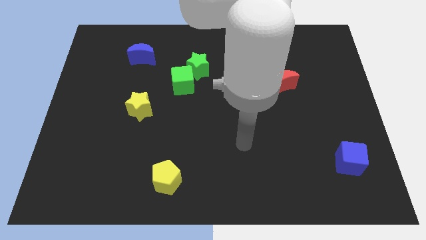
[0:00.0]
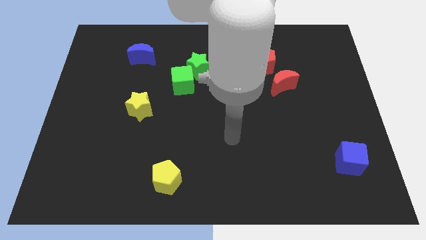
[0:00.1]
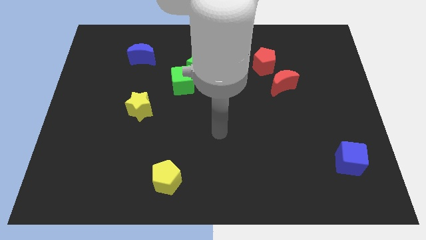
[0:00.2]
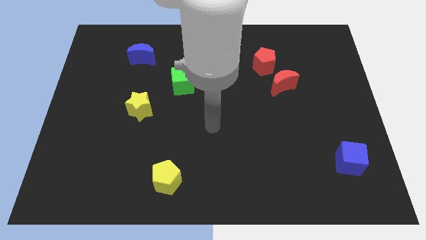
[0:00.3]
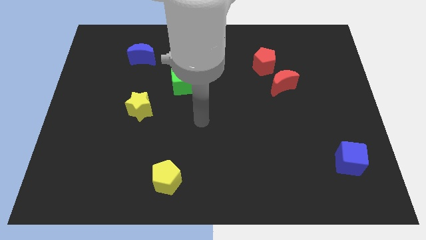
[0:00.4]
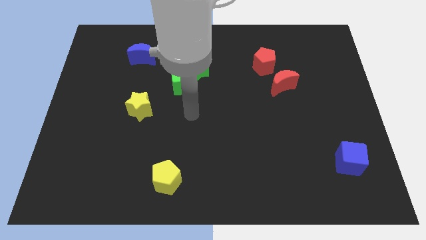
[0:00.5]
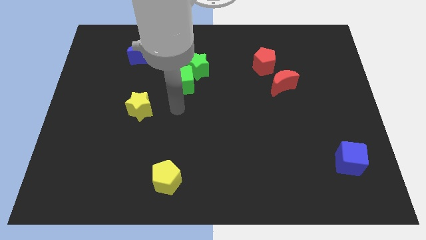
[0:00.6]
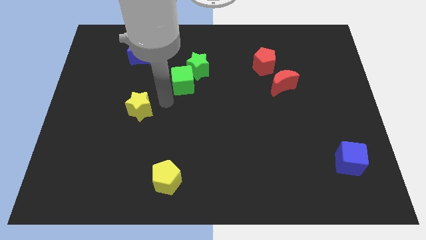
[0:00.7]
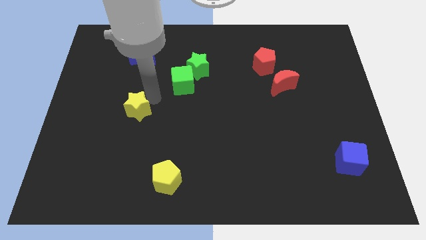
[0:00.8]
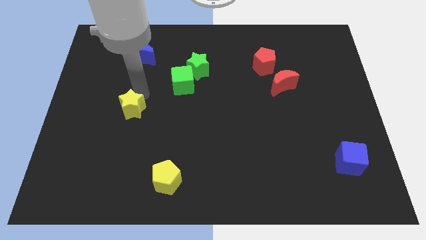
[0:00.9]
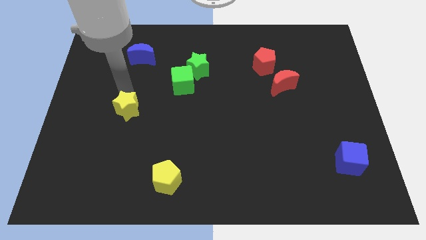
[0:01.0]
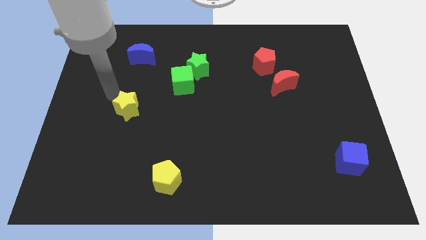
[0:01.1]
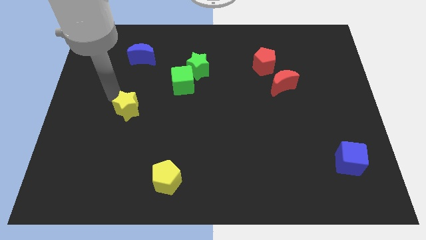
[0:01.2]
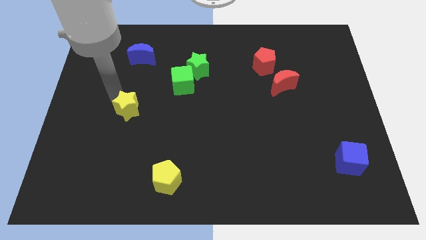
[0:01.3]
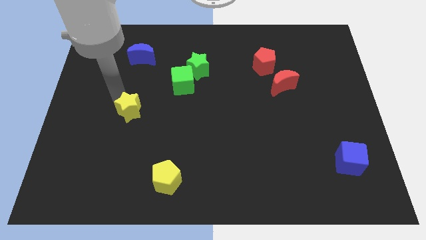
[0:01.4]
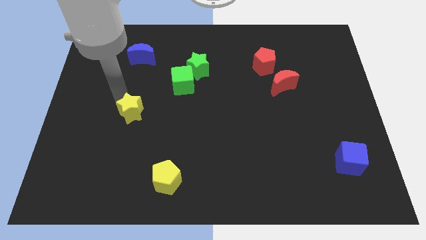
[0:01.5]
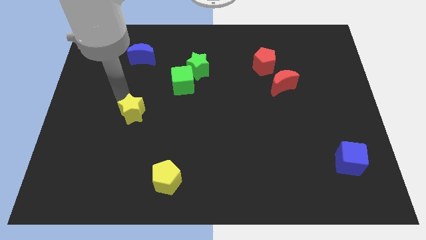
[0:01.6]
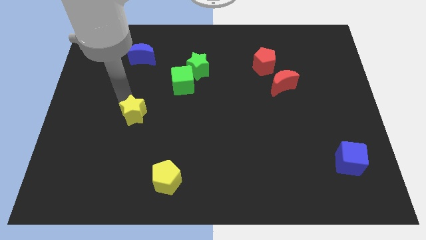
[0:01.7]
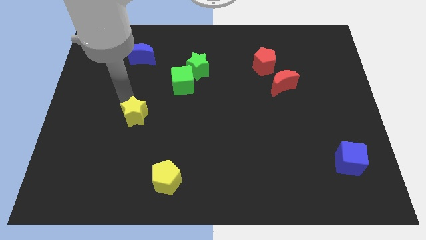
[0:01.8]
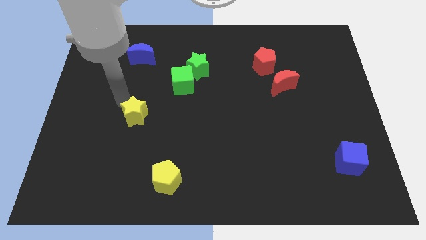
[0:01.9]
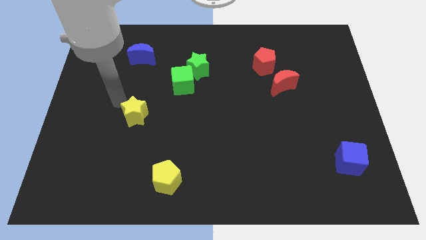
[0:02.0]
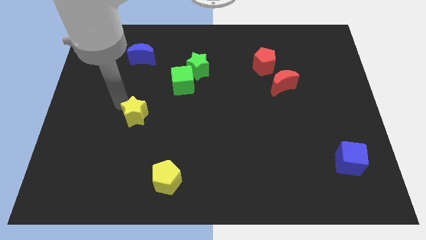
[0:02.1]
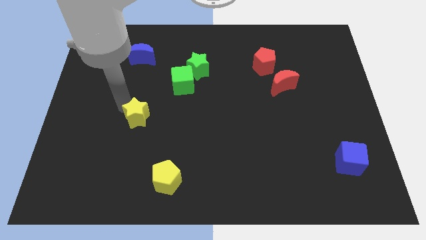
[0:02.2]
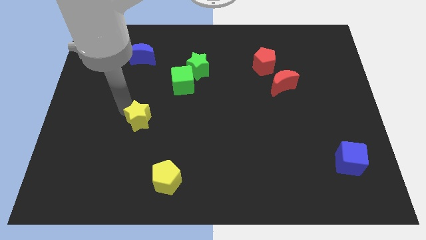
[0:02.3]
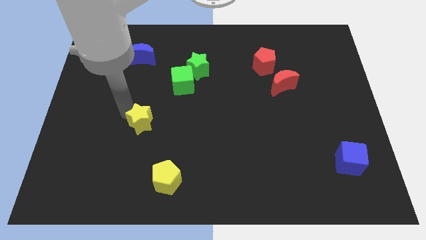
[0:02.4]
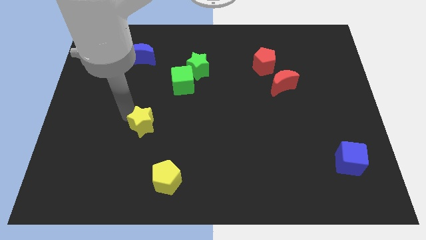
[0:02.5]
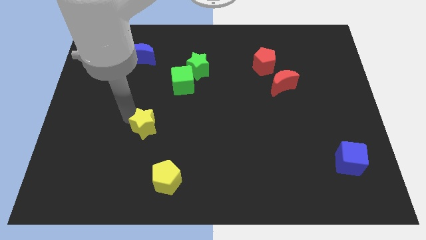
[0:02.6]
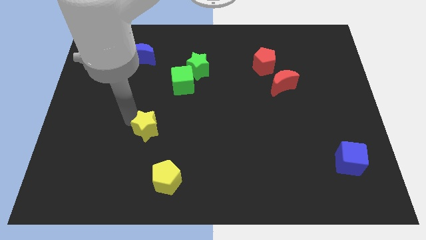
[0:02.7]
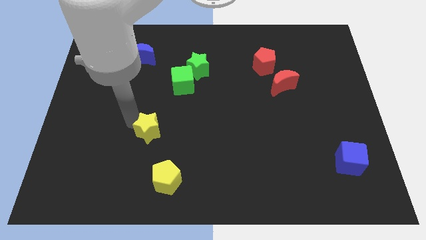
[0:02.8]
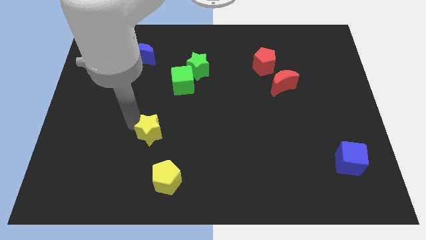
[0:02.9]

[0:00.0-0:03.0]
slide the yellow star diagonally down and right a little bit

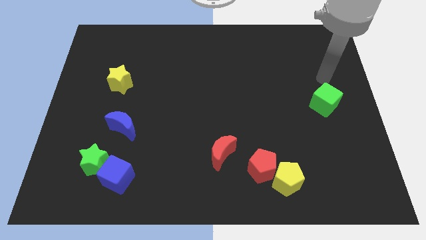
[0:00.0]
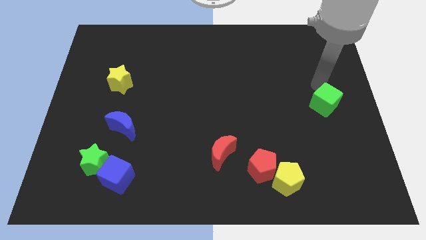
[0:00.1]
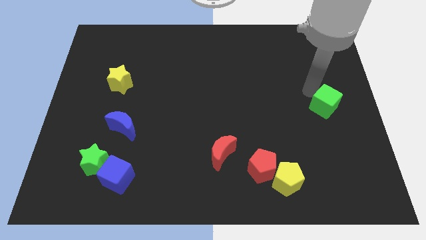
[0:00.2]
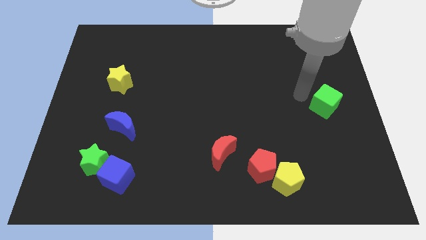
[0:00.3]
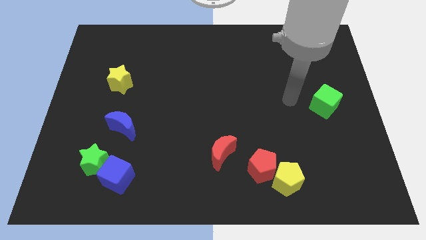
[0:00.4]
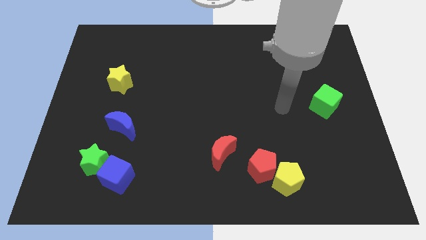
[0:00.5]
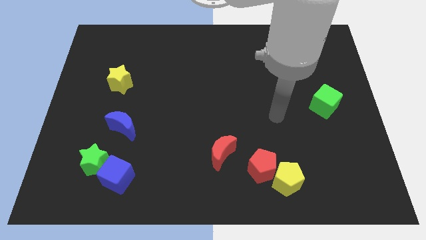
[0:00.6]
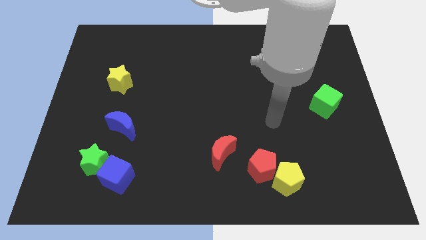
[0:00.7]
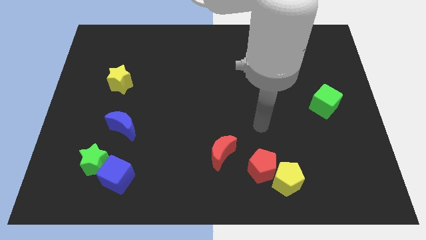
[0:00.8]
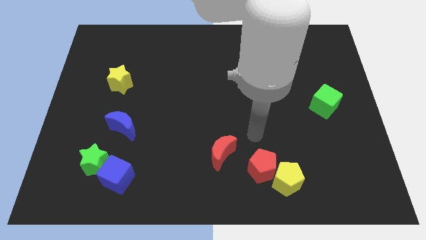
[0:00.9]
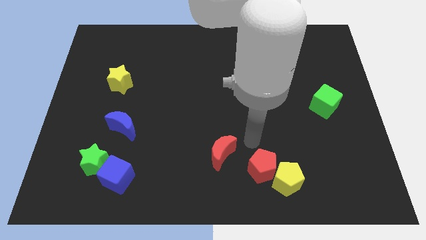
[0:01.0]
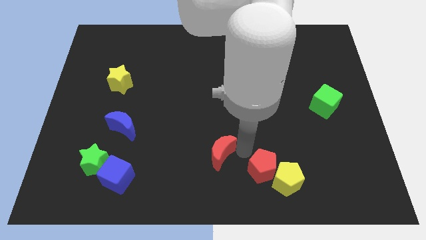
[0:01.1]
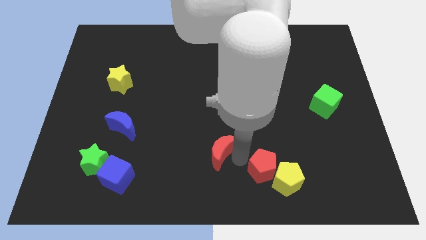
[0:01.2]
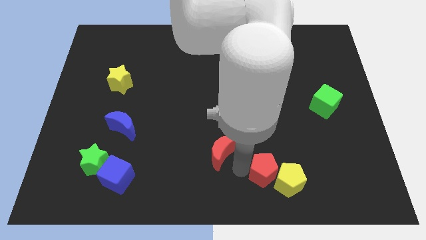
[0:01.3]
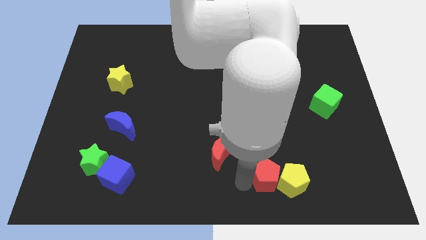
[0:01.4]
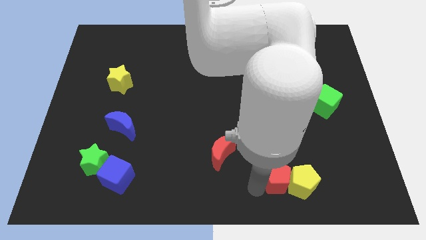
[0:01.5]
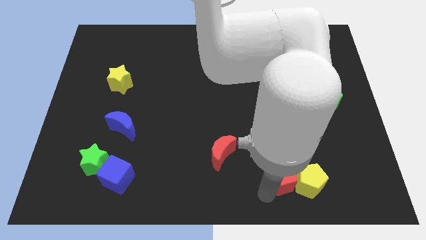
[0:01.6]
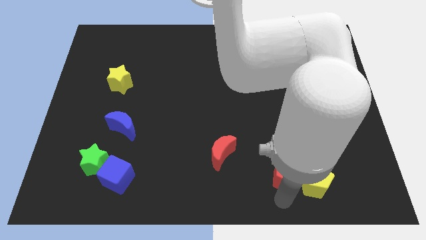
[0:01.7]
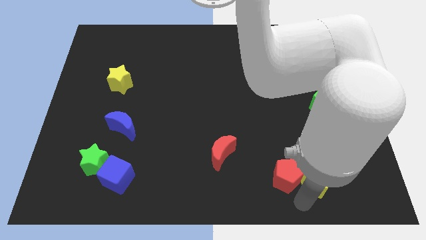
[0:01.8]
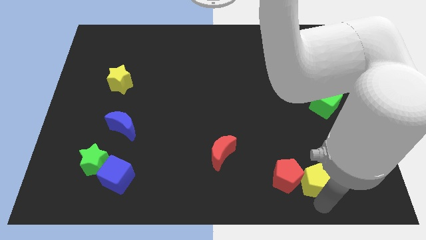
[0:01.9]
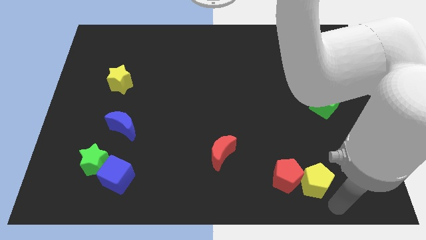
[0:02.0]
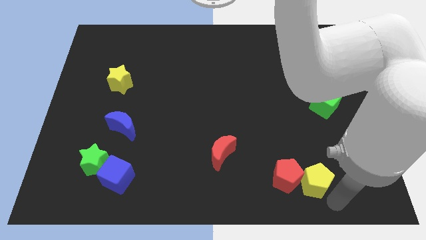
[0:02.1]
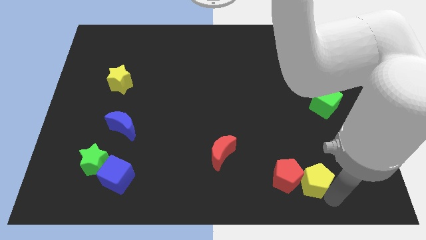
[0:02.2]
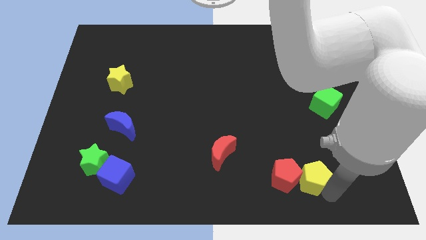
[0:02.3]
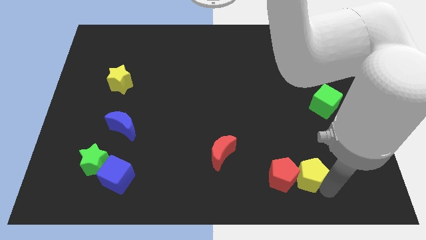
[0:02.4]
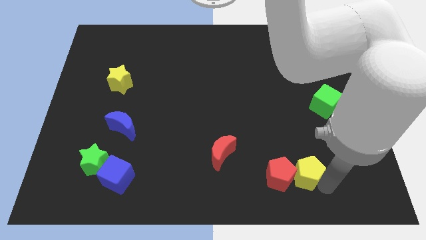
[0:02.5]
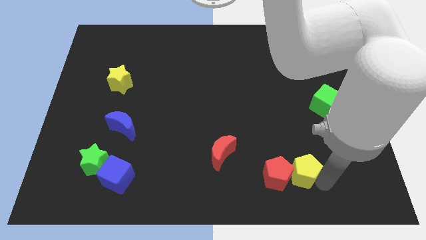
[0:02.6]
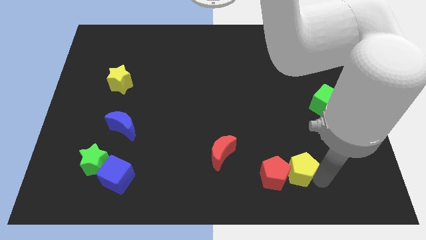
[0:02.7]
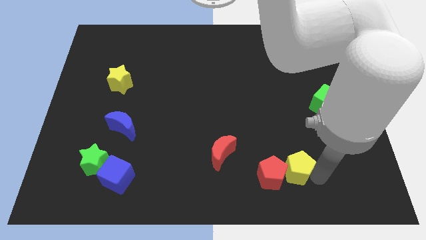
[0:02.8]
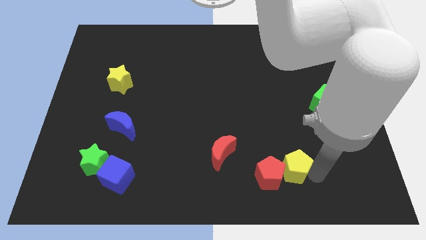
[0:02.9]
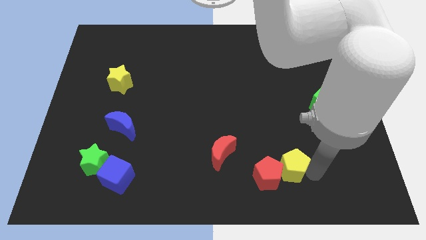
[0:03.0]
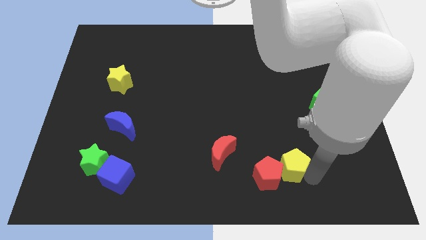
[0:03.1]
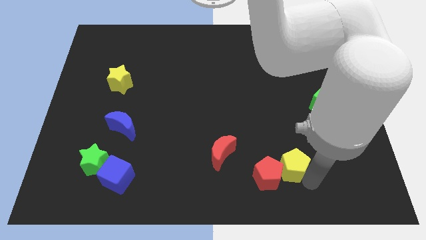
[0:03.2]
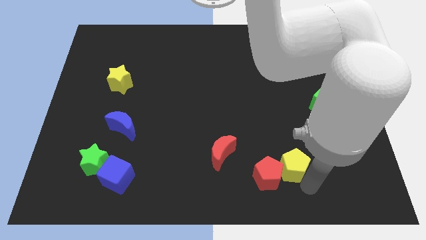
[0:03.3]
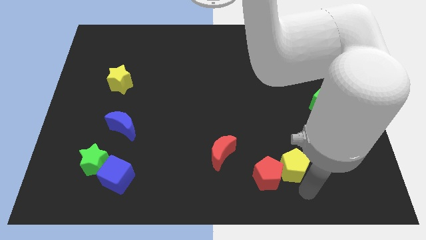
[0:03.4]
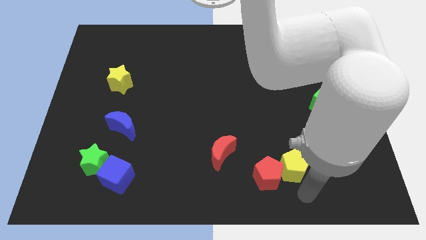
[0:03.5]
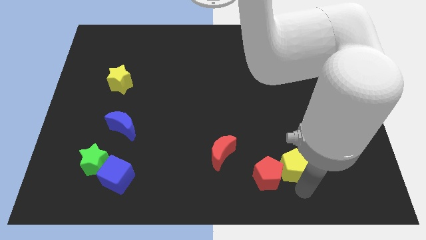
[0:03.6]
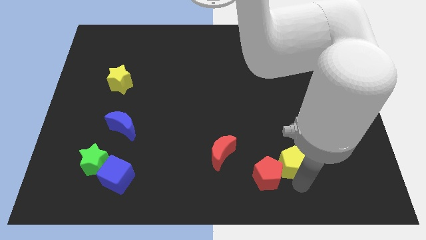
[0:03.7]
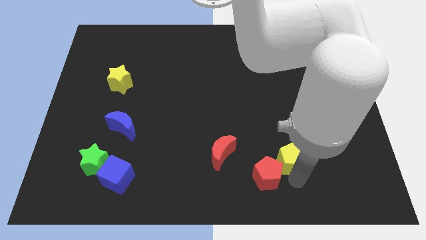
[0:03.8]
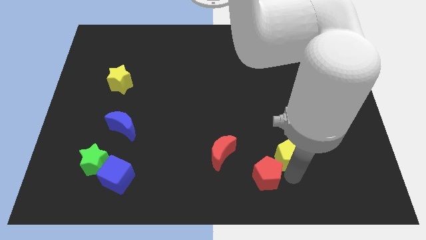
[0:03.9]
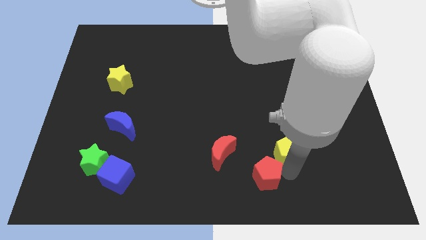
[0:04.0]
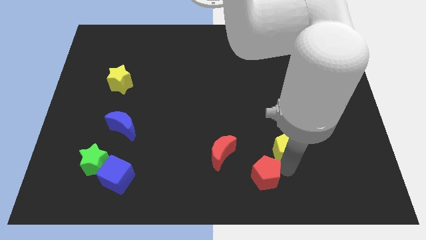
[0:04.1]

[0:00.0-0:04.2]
push the yellow pentagon slightly upwards

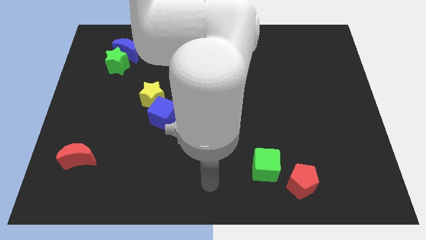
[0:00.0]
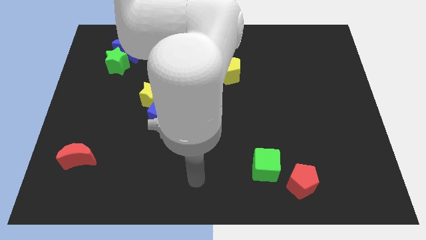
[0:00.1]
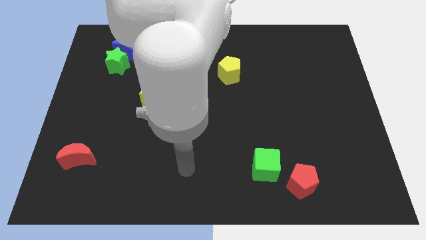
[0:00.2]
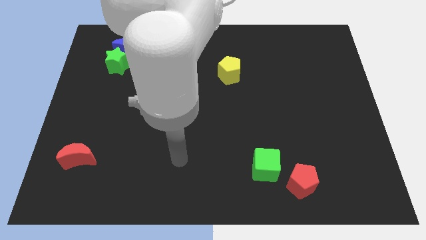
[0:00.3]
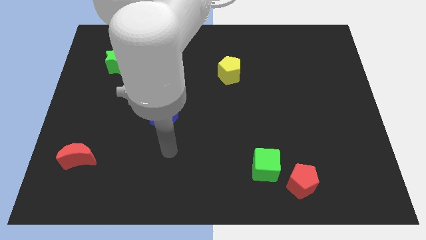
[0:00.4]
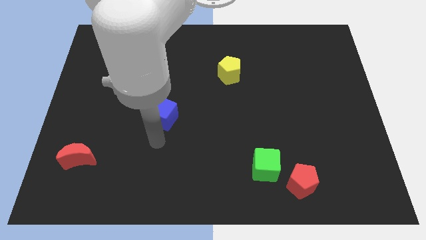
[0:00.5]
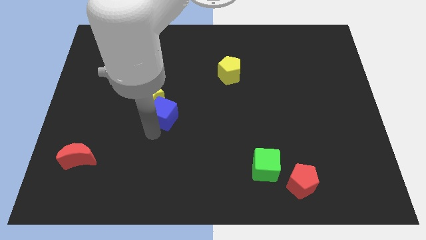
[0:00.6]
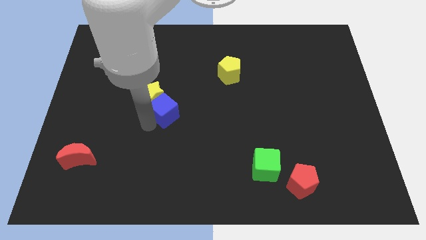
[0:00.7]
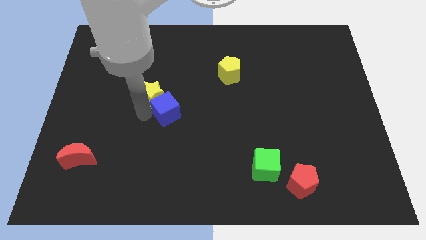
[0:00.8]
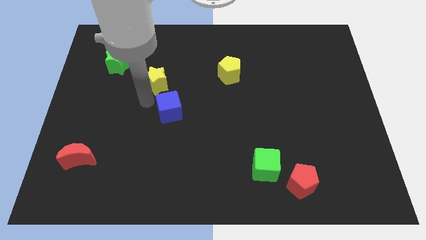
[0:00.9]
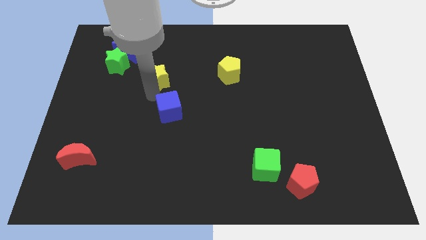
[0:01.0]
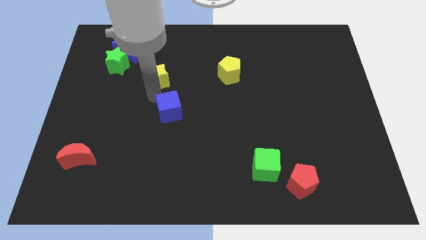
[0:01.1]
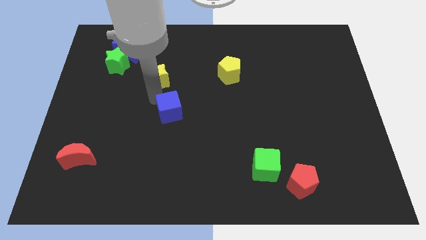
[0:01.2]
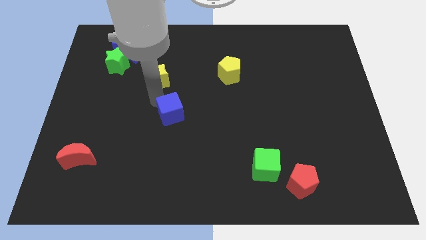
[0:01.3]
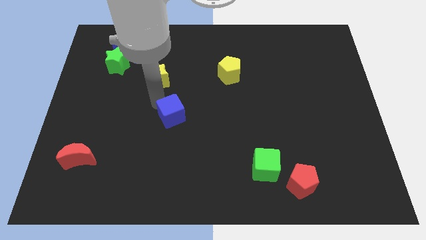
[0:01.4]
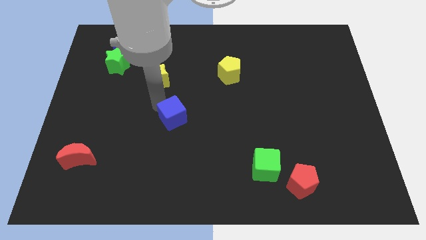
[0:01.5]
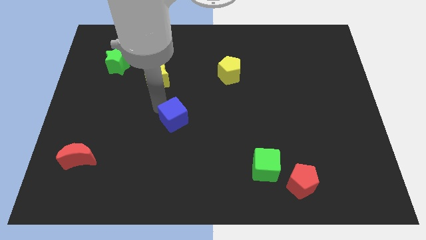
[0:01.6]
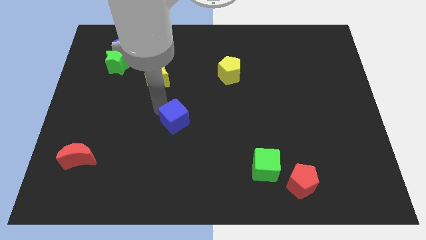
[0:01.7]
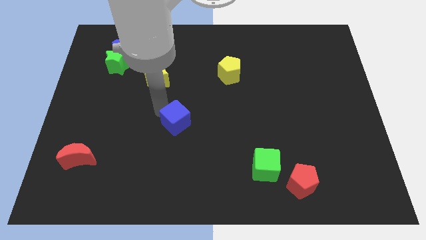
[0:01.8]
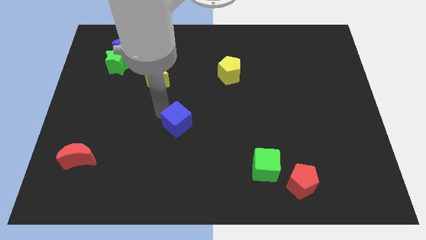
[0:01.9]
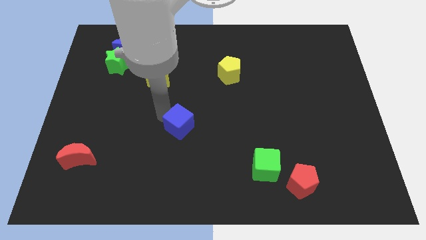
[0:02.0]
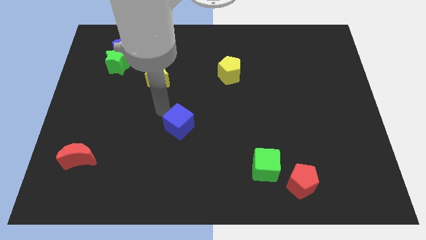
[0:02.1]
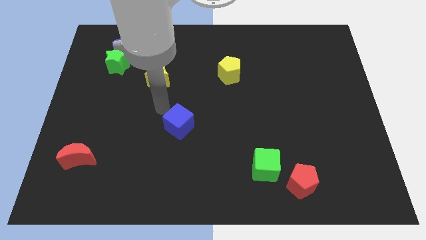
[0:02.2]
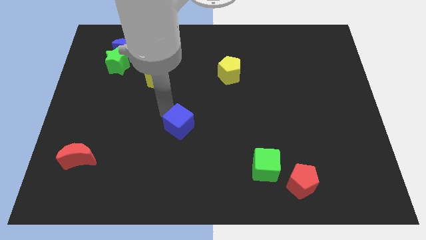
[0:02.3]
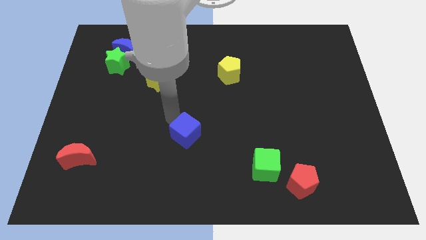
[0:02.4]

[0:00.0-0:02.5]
slide the blue cube downwards and right diagonally slightly
